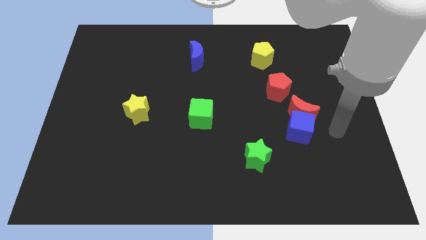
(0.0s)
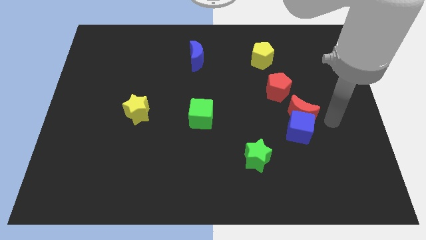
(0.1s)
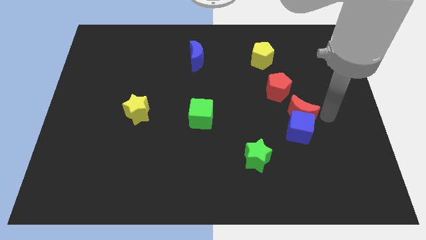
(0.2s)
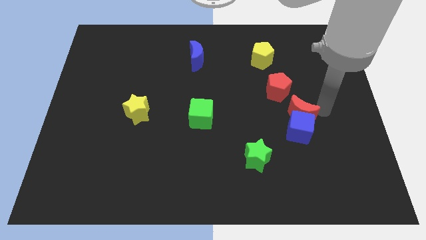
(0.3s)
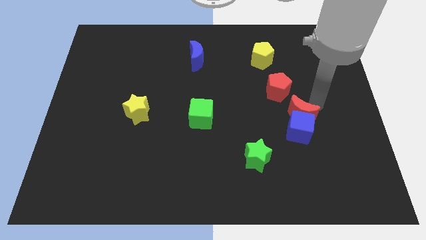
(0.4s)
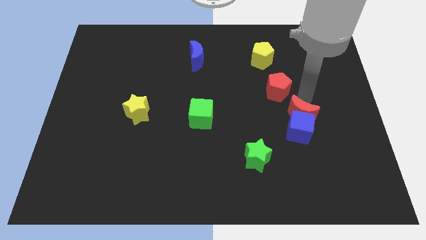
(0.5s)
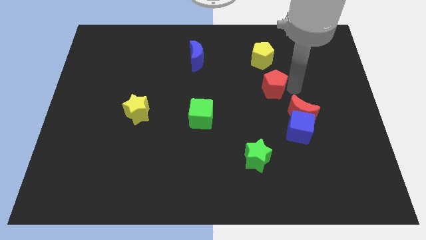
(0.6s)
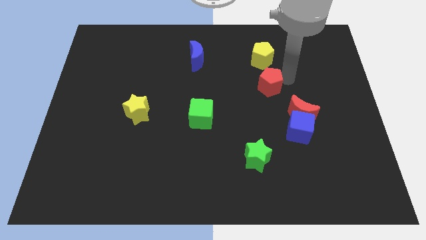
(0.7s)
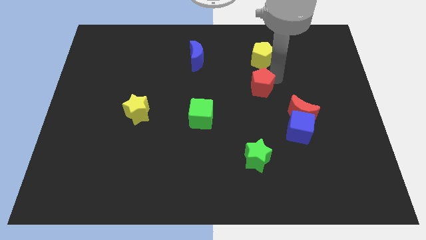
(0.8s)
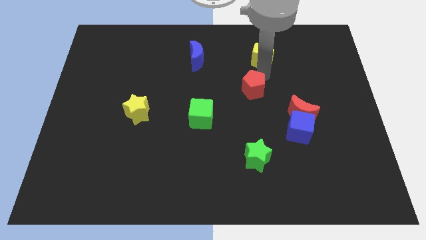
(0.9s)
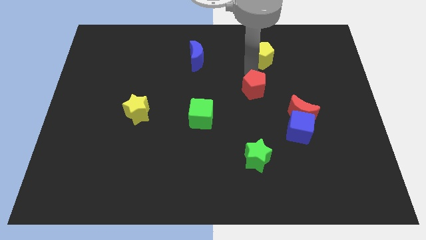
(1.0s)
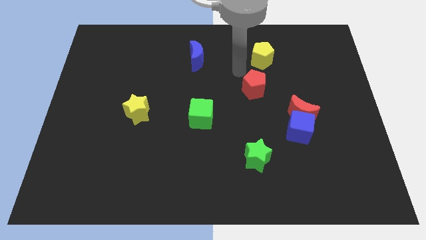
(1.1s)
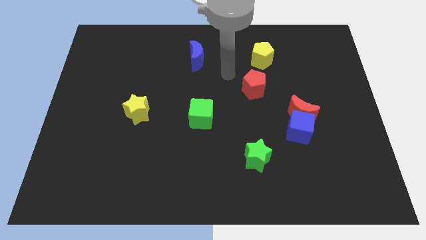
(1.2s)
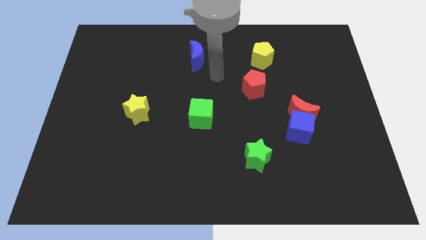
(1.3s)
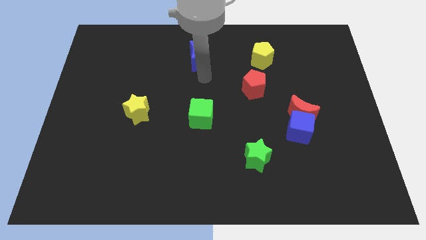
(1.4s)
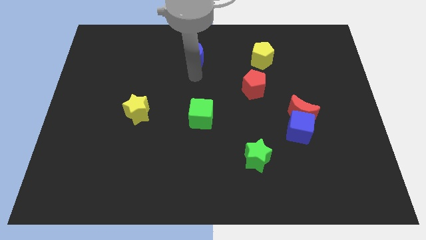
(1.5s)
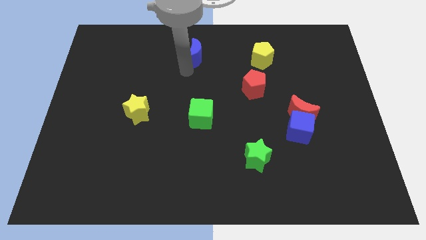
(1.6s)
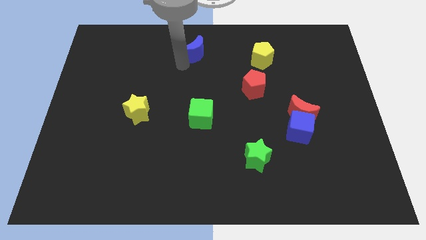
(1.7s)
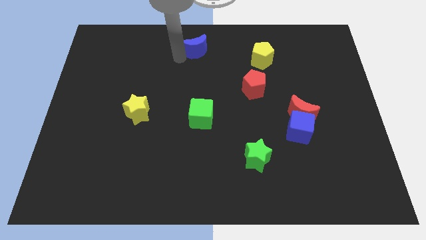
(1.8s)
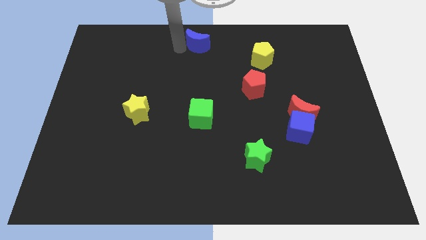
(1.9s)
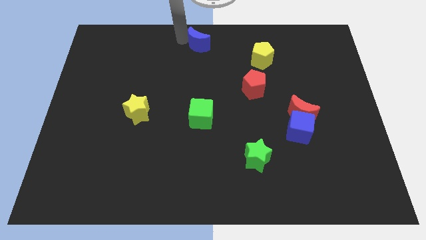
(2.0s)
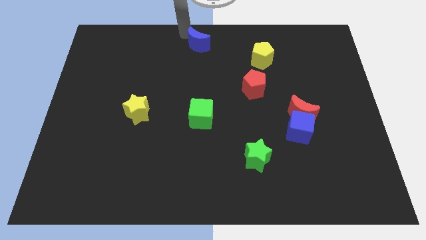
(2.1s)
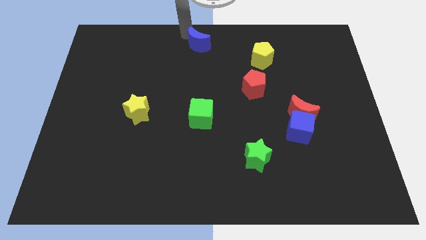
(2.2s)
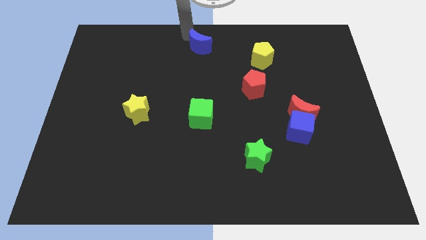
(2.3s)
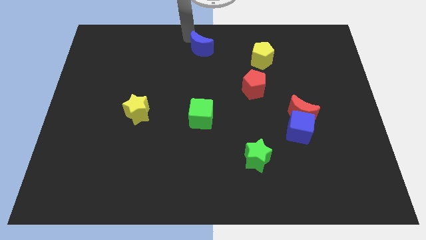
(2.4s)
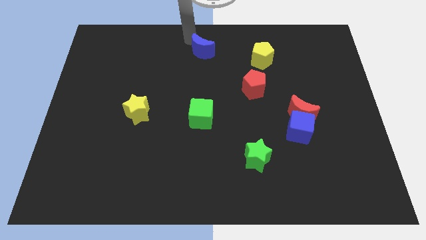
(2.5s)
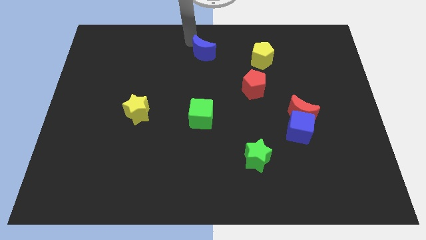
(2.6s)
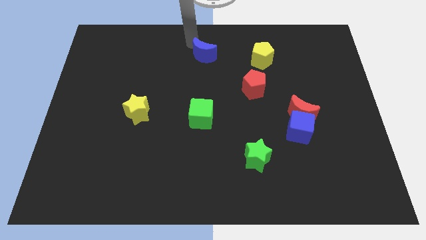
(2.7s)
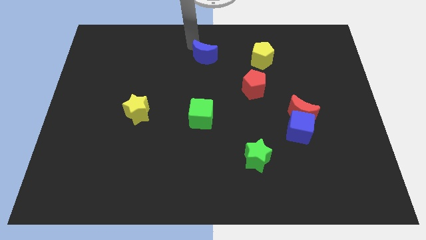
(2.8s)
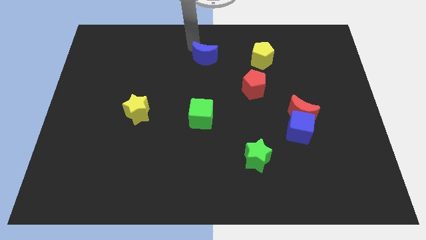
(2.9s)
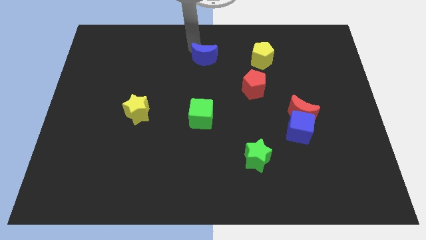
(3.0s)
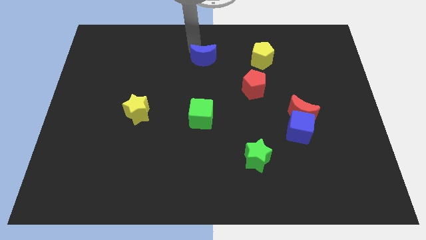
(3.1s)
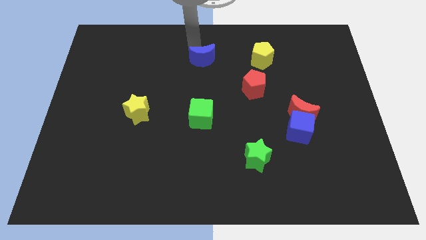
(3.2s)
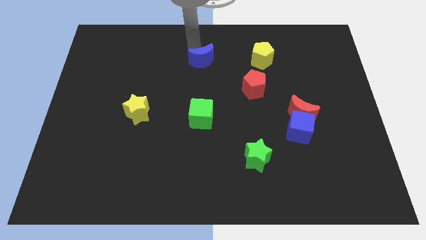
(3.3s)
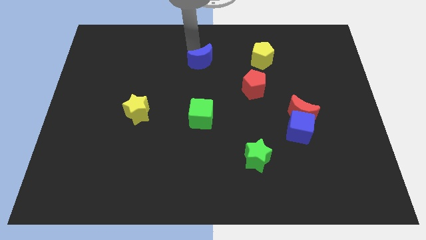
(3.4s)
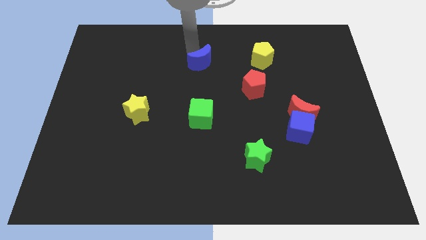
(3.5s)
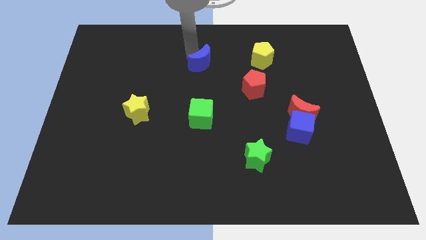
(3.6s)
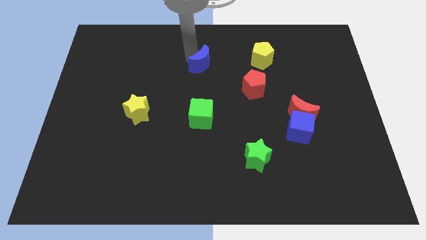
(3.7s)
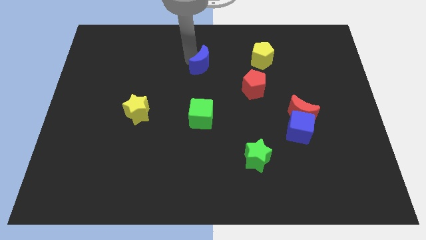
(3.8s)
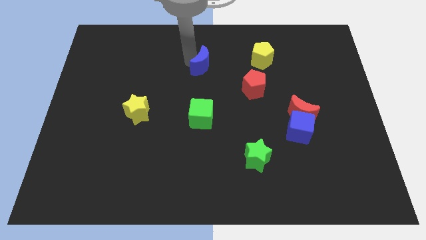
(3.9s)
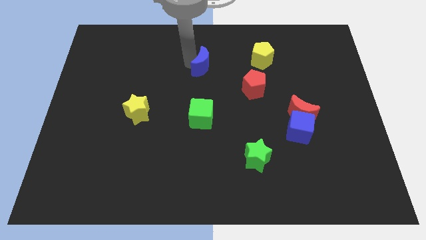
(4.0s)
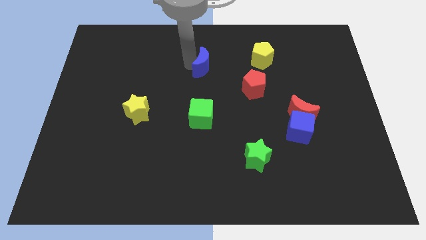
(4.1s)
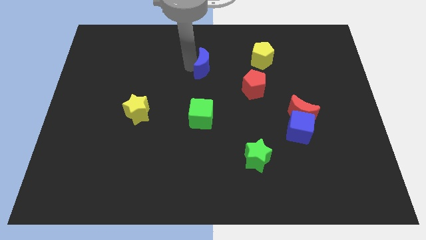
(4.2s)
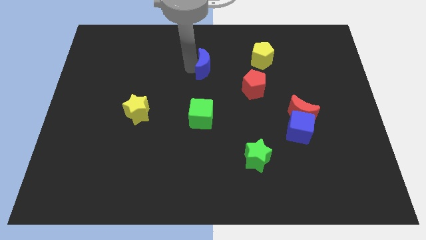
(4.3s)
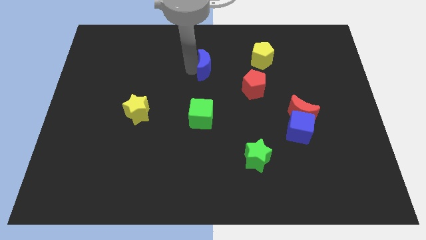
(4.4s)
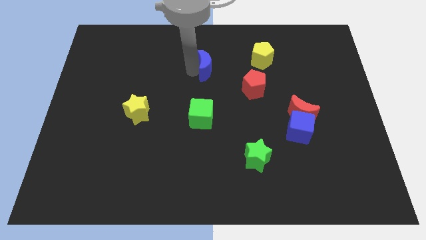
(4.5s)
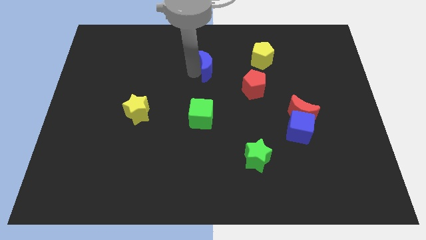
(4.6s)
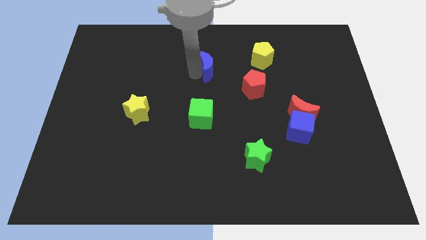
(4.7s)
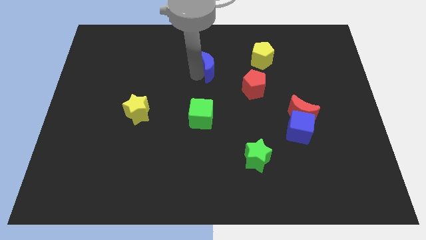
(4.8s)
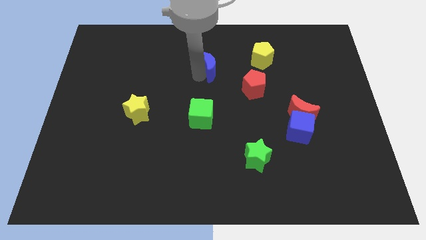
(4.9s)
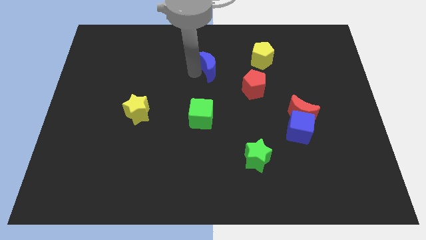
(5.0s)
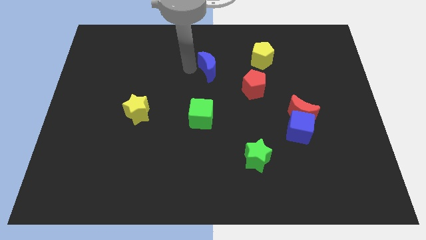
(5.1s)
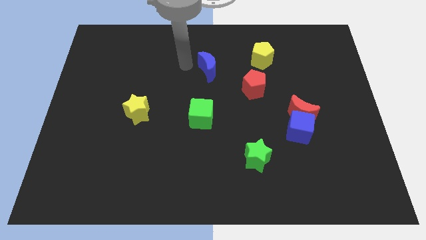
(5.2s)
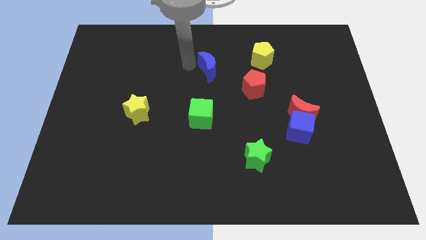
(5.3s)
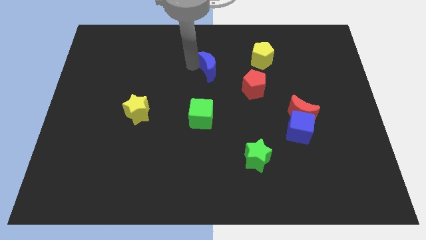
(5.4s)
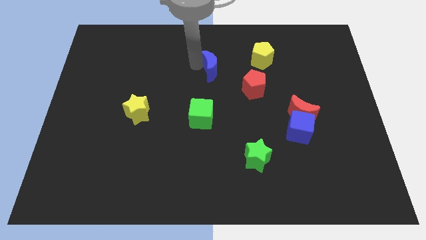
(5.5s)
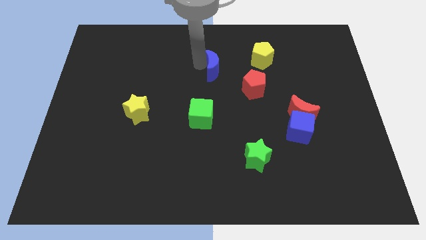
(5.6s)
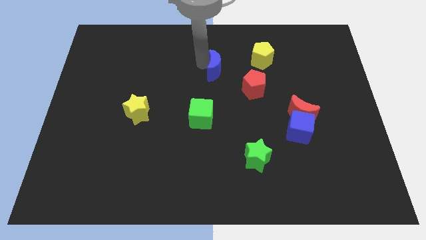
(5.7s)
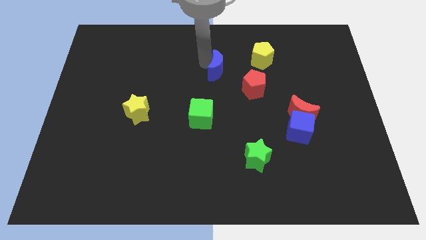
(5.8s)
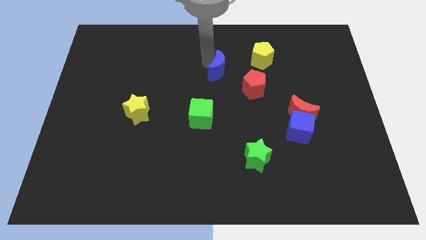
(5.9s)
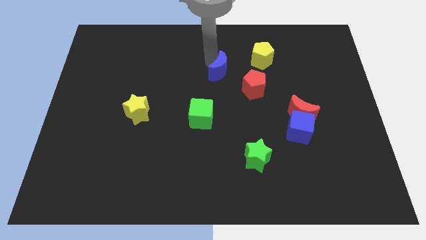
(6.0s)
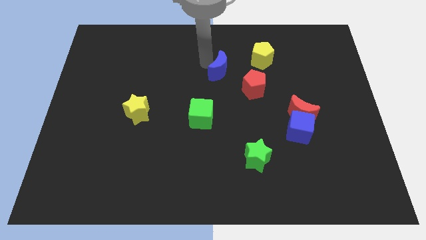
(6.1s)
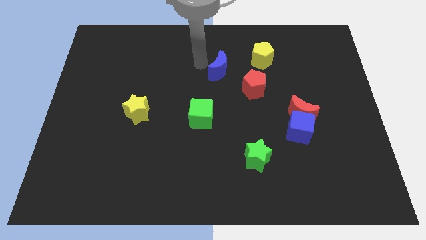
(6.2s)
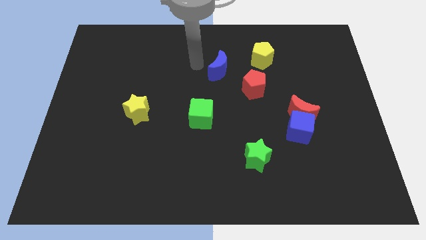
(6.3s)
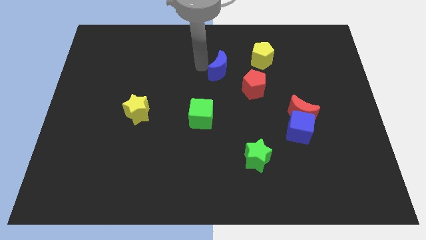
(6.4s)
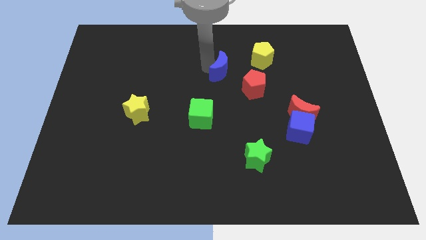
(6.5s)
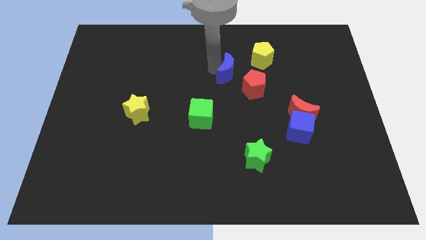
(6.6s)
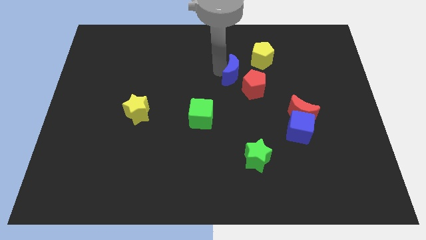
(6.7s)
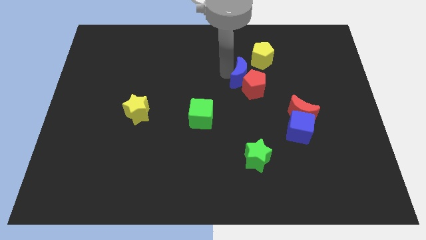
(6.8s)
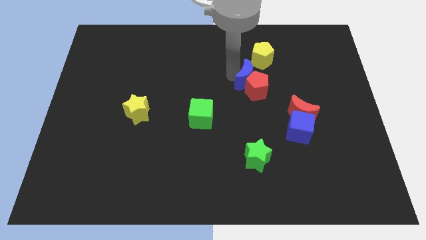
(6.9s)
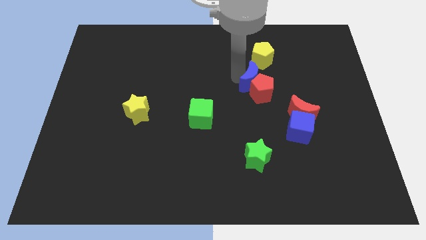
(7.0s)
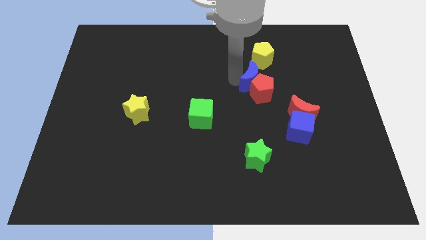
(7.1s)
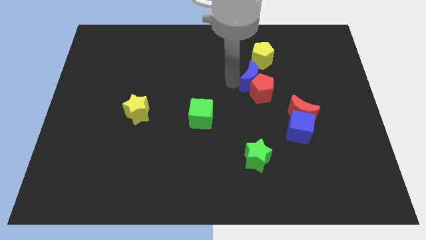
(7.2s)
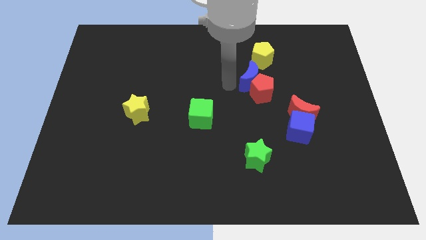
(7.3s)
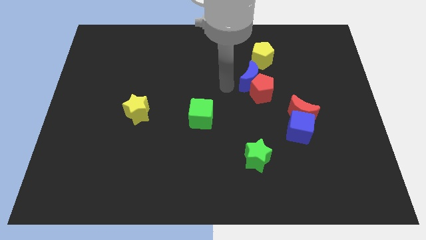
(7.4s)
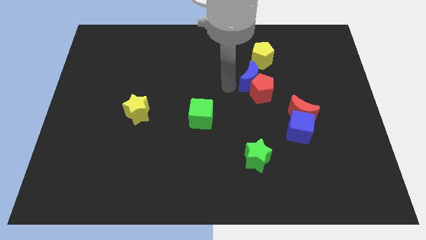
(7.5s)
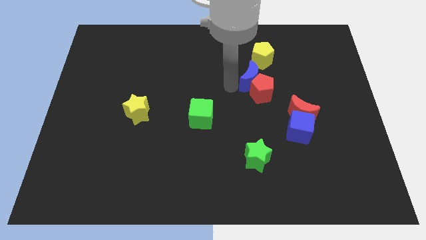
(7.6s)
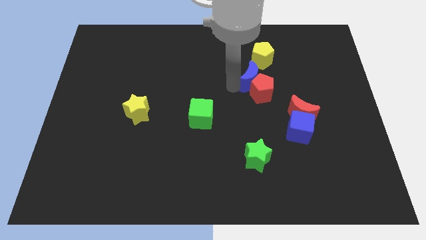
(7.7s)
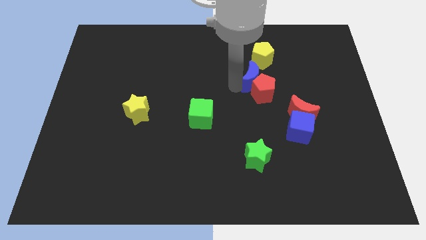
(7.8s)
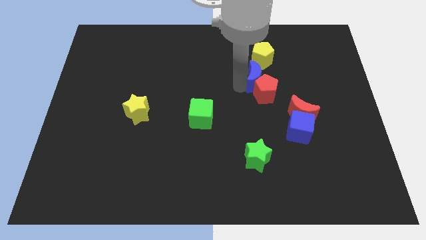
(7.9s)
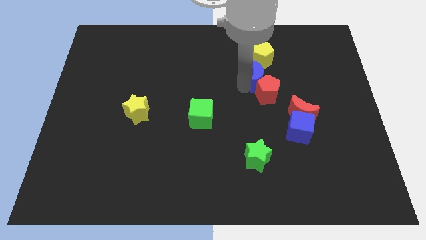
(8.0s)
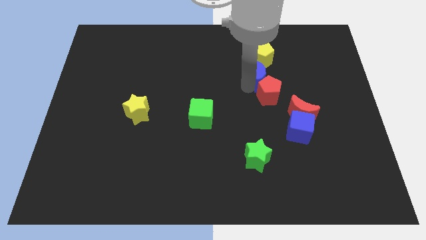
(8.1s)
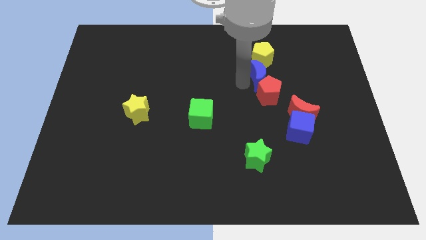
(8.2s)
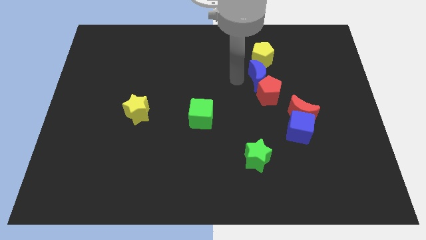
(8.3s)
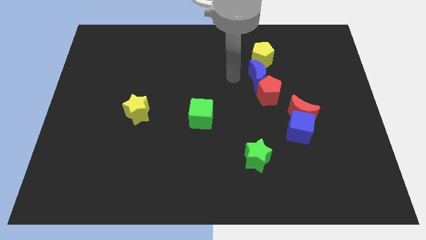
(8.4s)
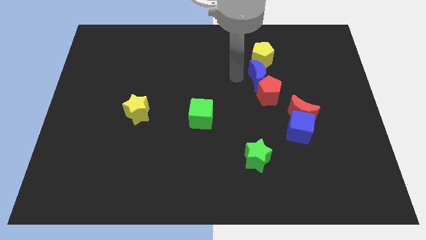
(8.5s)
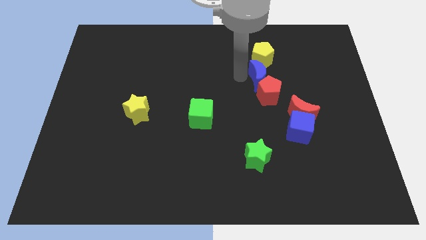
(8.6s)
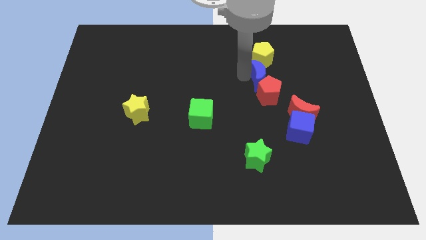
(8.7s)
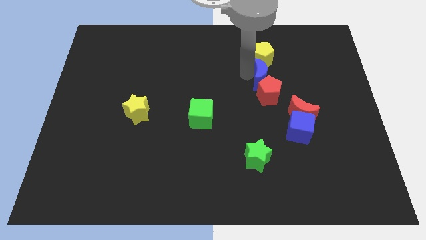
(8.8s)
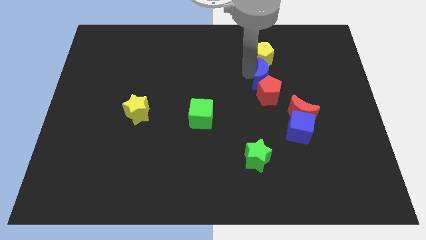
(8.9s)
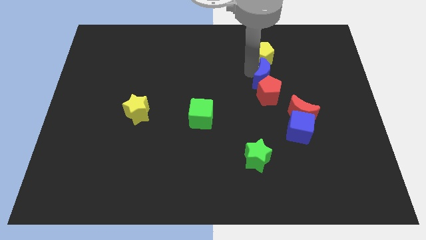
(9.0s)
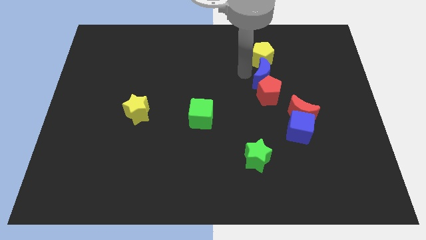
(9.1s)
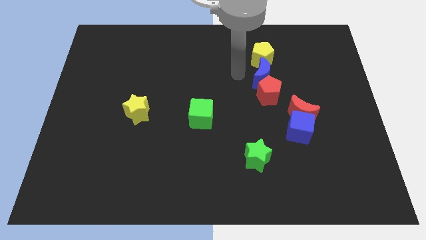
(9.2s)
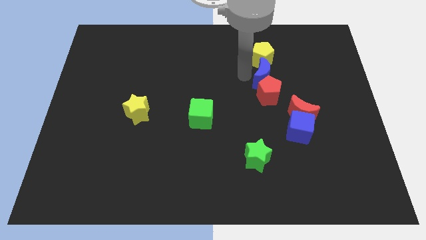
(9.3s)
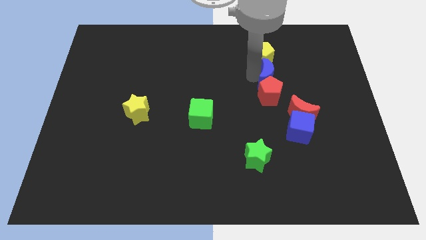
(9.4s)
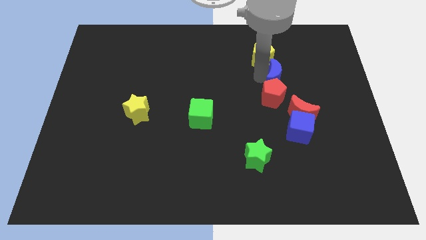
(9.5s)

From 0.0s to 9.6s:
push the blue moon above the red moon
